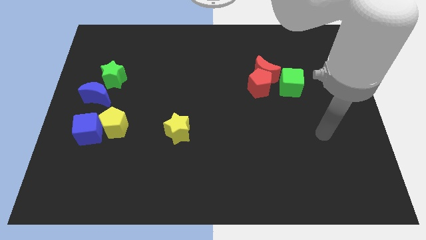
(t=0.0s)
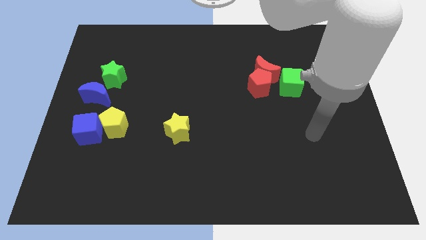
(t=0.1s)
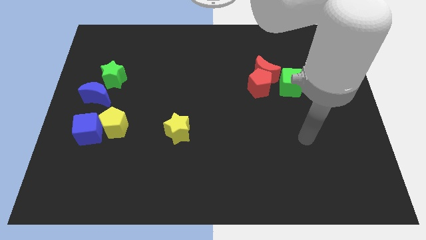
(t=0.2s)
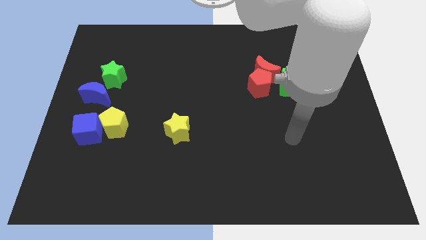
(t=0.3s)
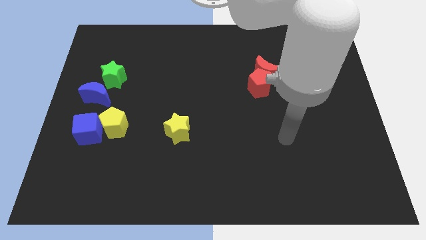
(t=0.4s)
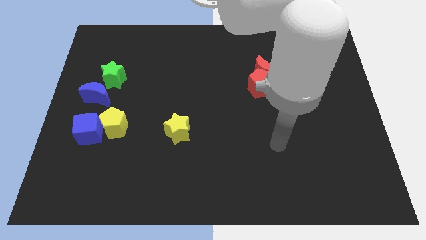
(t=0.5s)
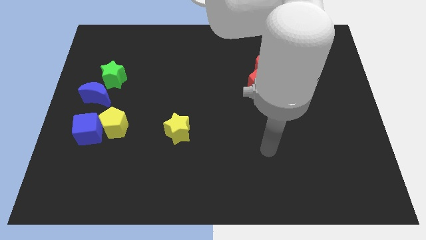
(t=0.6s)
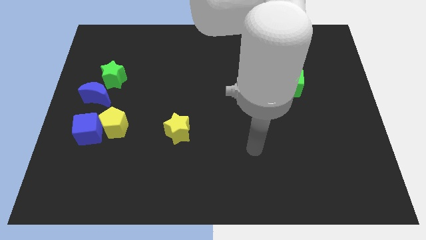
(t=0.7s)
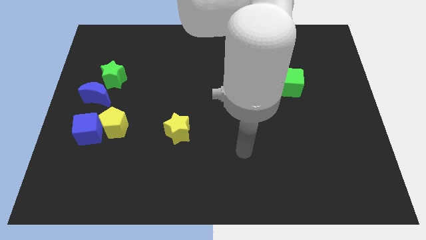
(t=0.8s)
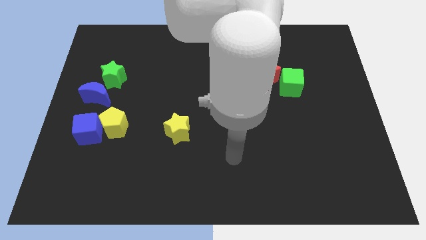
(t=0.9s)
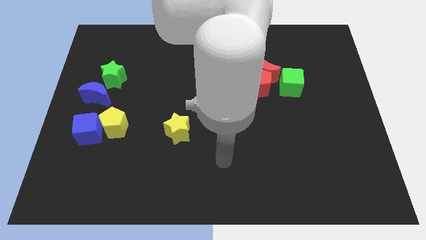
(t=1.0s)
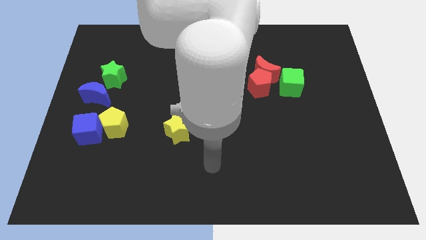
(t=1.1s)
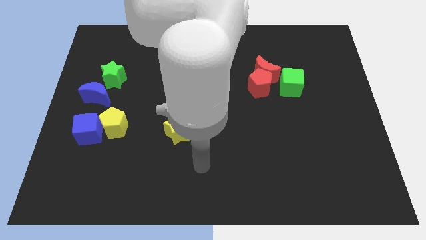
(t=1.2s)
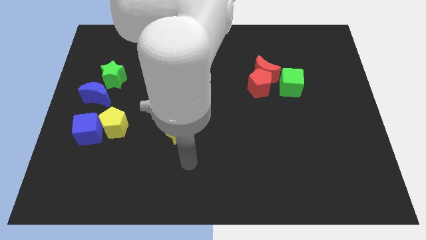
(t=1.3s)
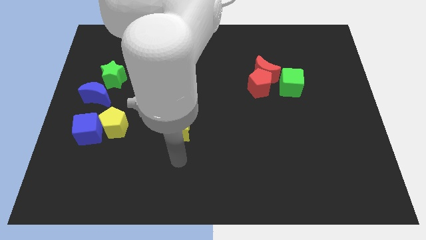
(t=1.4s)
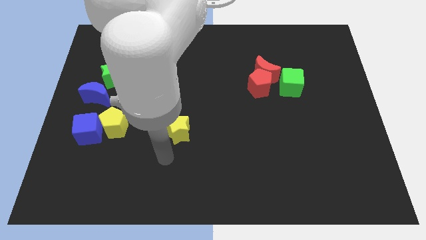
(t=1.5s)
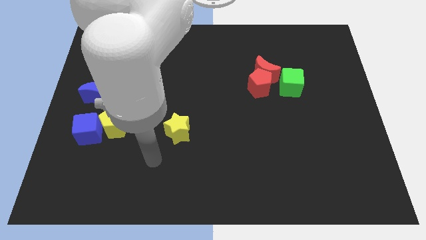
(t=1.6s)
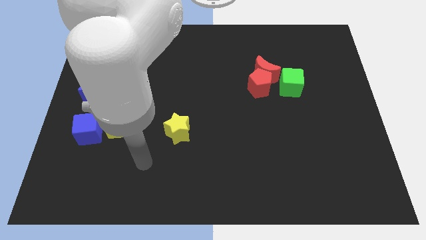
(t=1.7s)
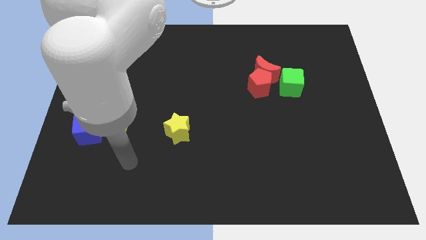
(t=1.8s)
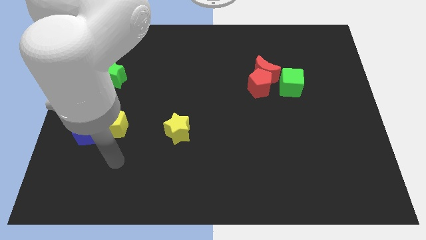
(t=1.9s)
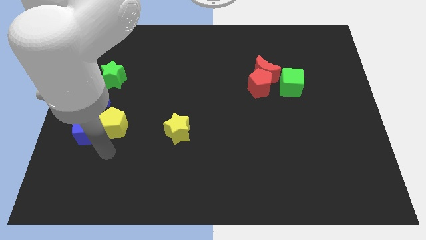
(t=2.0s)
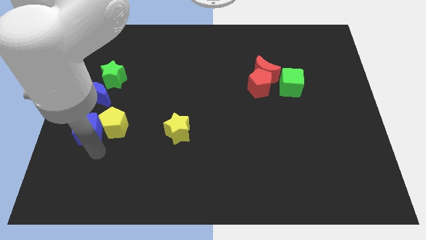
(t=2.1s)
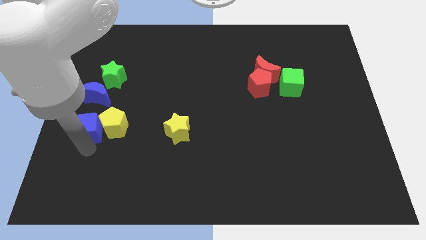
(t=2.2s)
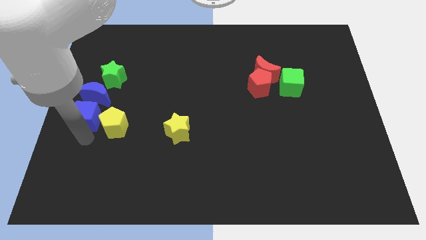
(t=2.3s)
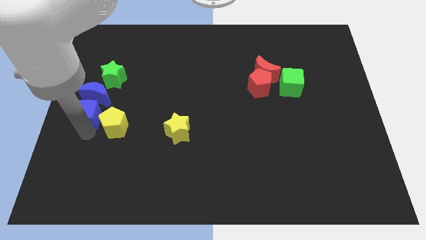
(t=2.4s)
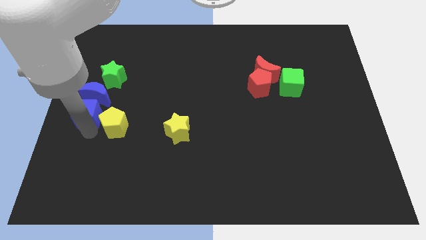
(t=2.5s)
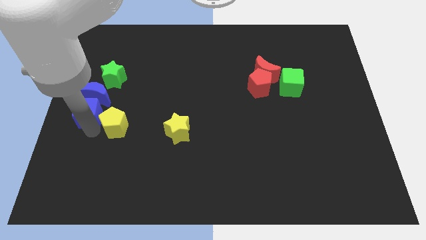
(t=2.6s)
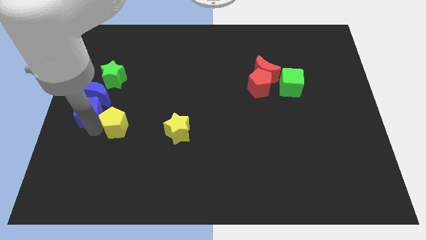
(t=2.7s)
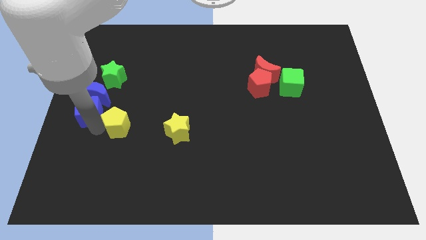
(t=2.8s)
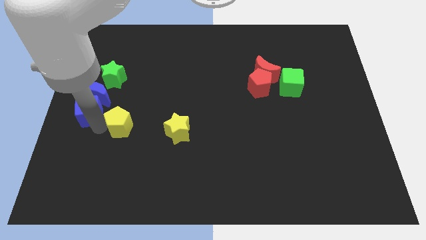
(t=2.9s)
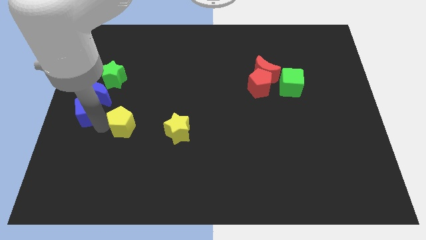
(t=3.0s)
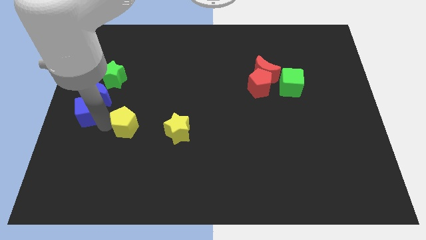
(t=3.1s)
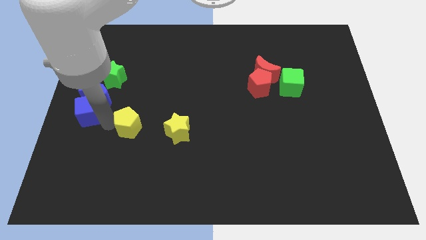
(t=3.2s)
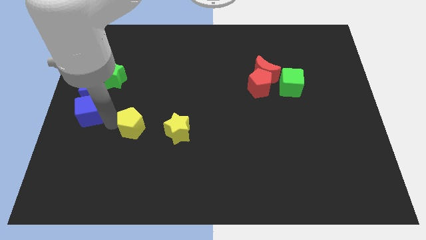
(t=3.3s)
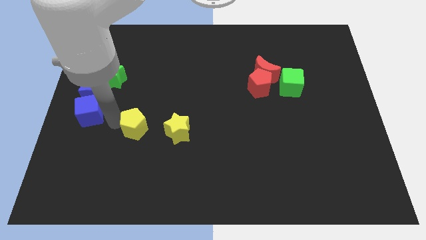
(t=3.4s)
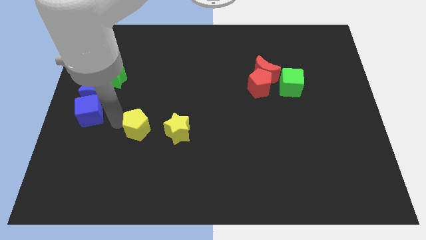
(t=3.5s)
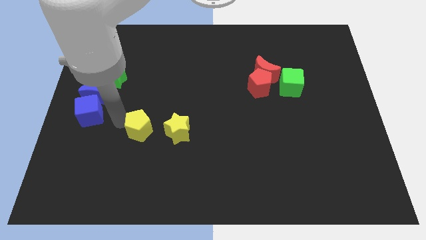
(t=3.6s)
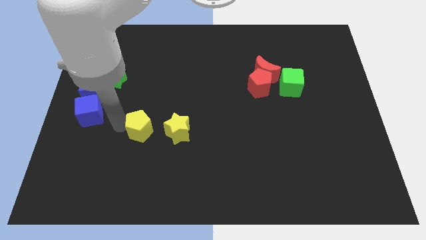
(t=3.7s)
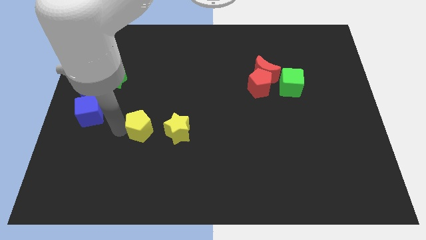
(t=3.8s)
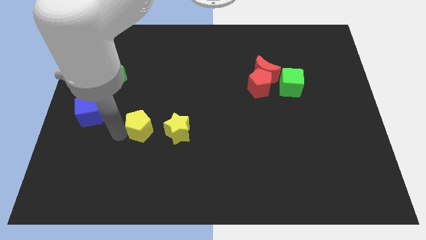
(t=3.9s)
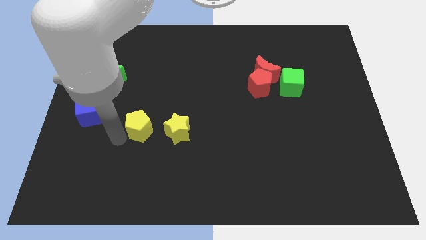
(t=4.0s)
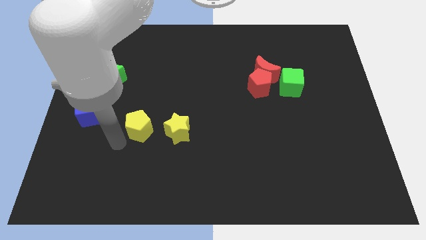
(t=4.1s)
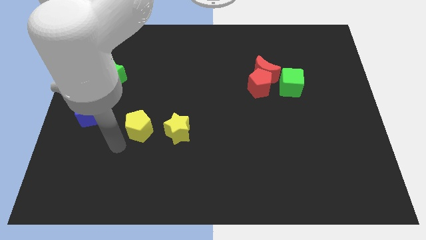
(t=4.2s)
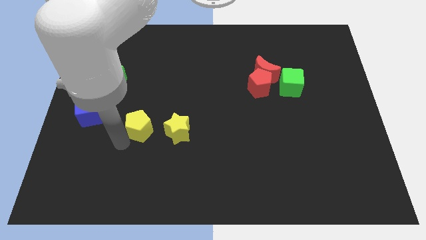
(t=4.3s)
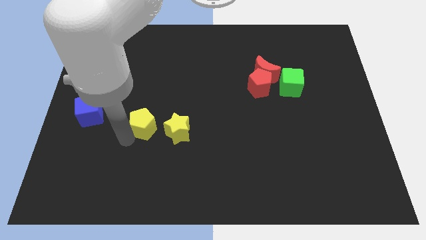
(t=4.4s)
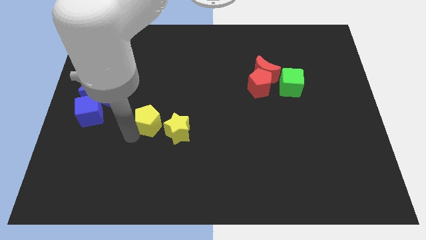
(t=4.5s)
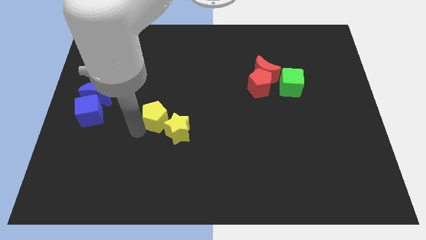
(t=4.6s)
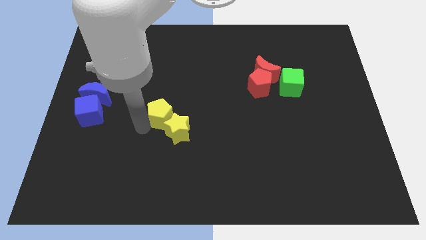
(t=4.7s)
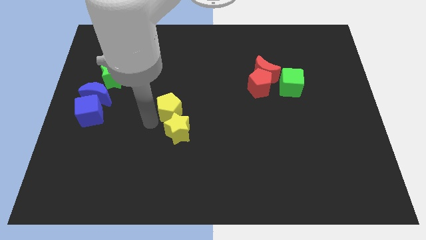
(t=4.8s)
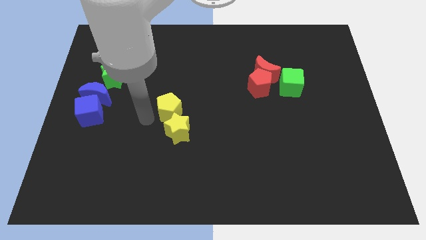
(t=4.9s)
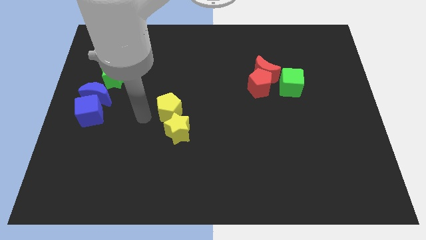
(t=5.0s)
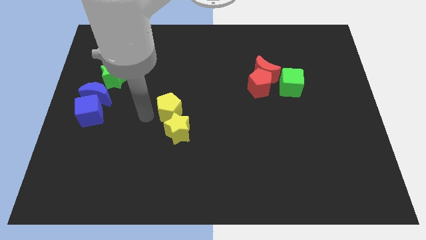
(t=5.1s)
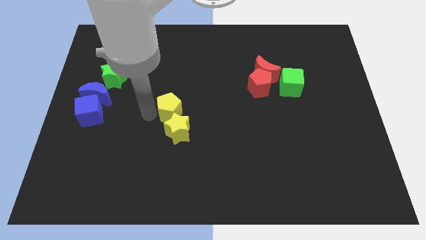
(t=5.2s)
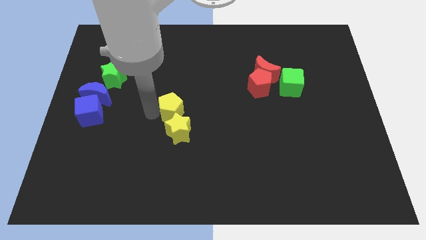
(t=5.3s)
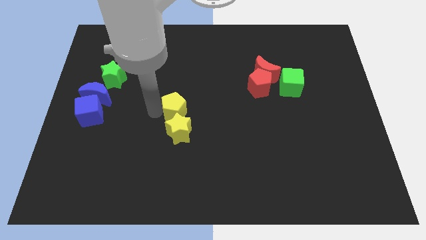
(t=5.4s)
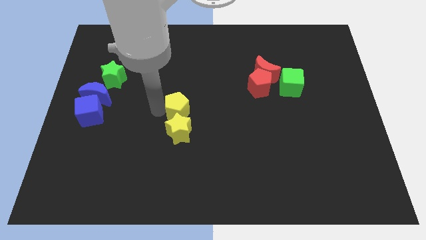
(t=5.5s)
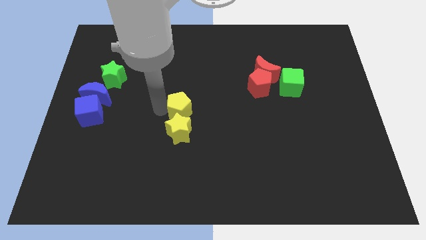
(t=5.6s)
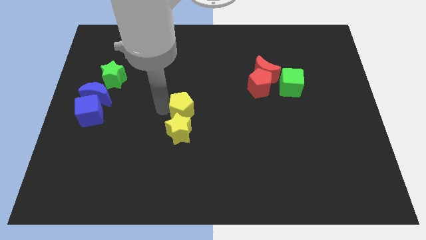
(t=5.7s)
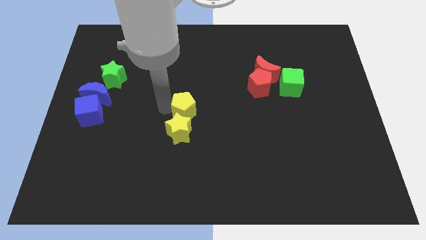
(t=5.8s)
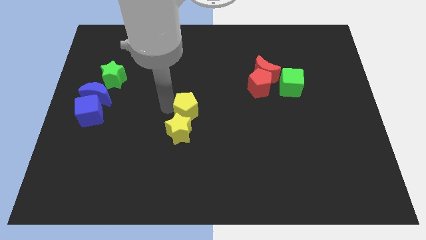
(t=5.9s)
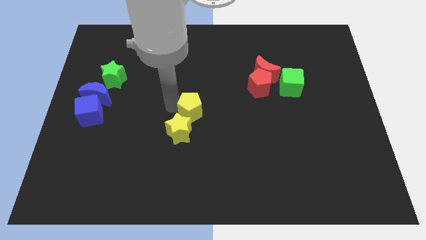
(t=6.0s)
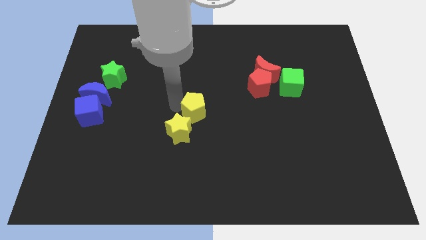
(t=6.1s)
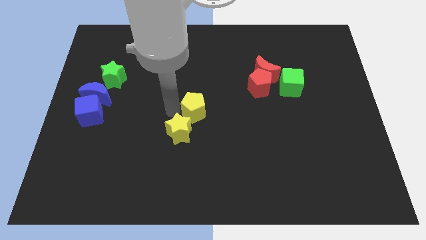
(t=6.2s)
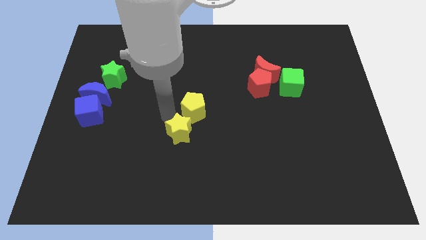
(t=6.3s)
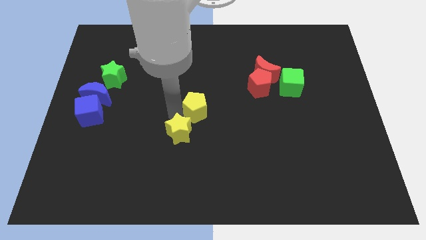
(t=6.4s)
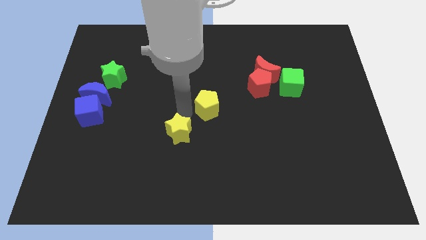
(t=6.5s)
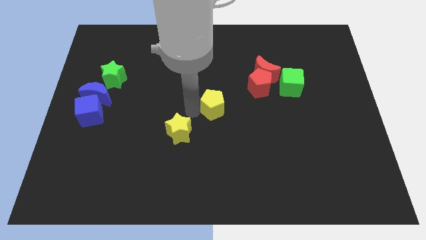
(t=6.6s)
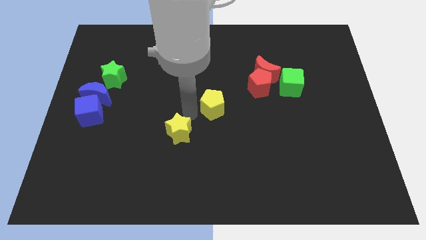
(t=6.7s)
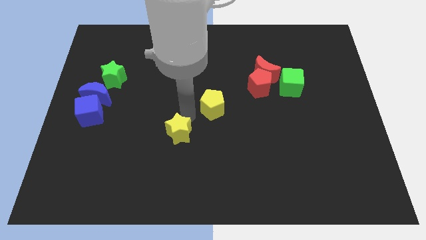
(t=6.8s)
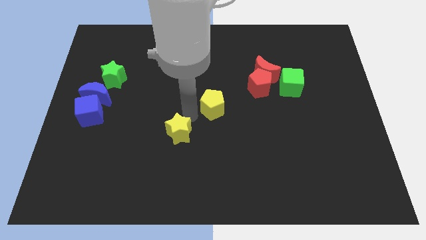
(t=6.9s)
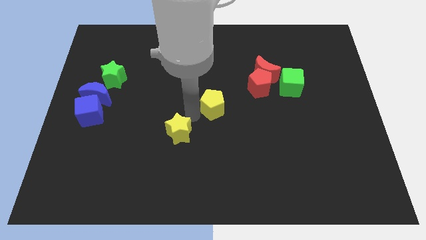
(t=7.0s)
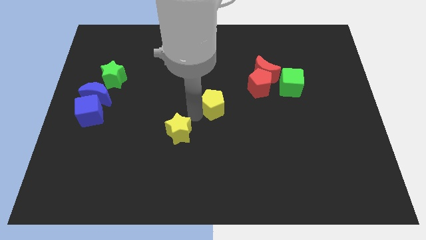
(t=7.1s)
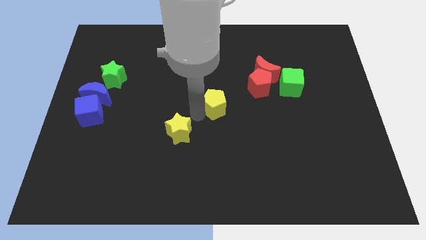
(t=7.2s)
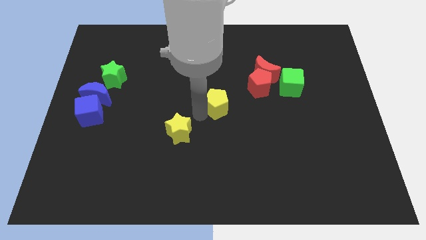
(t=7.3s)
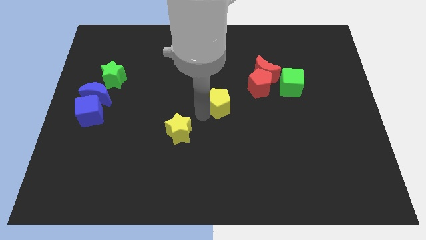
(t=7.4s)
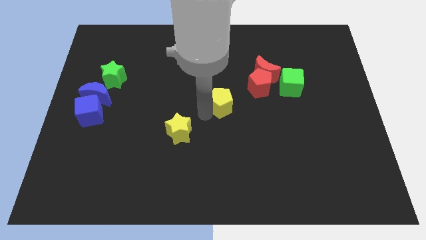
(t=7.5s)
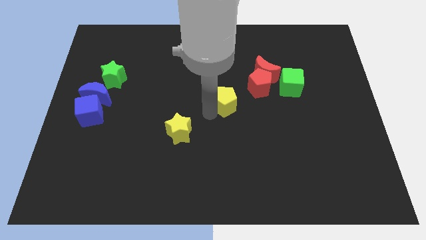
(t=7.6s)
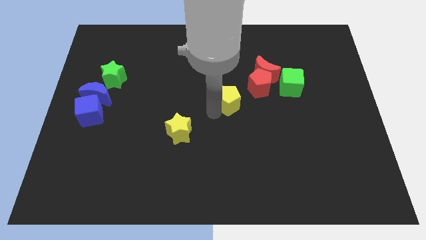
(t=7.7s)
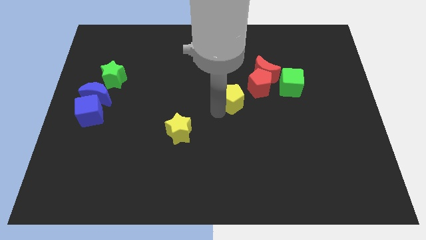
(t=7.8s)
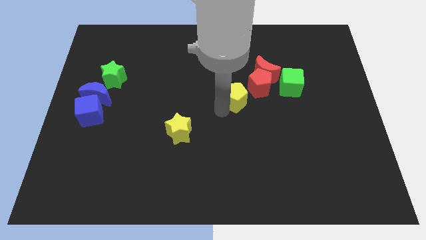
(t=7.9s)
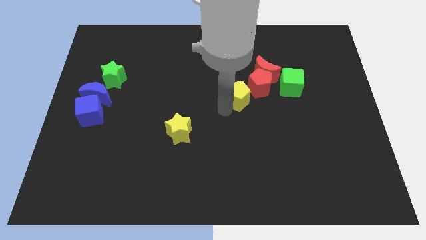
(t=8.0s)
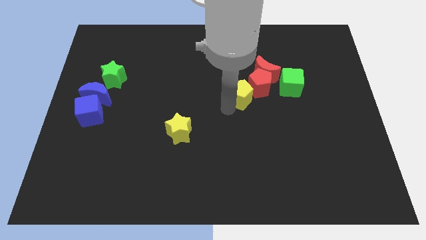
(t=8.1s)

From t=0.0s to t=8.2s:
slide the yellow pentagon close to the red pentagon
